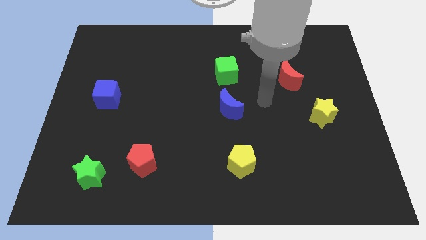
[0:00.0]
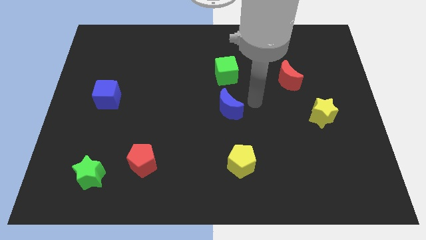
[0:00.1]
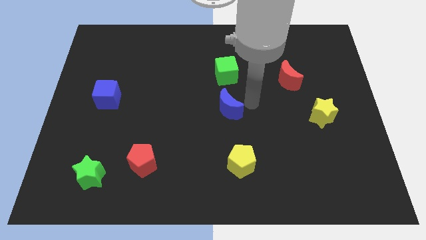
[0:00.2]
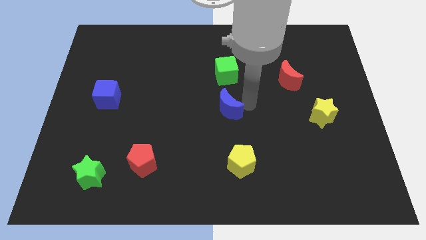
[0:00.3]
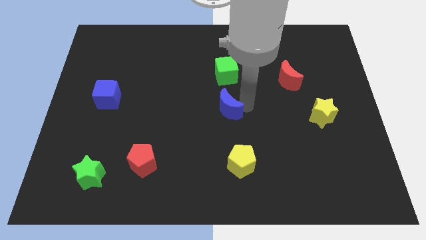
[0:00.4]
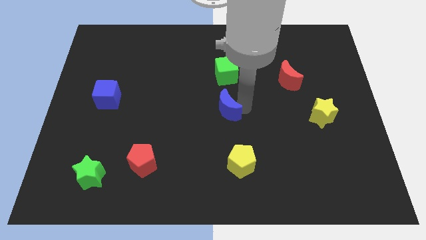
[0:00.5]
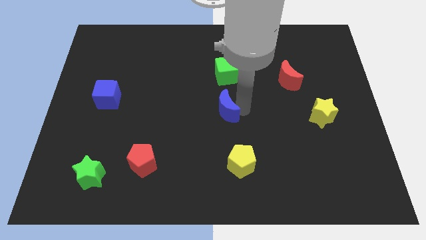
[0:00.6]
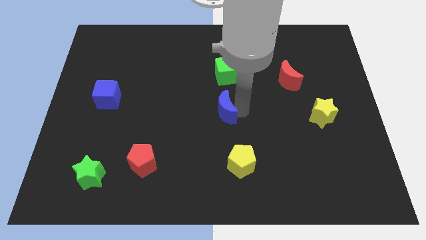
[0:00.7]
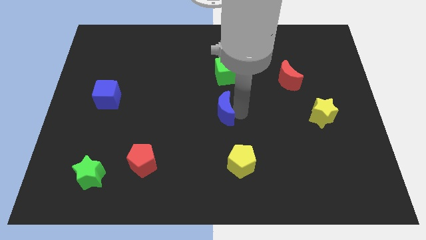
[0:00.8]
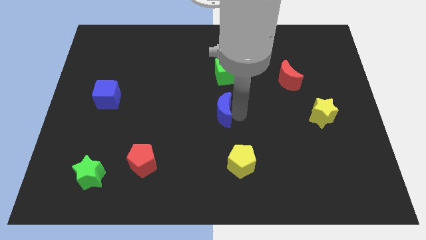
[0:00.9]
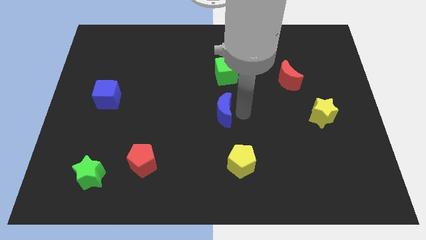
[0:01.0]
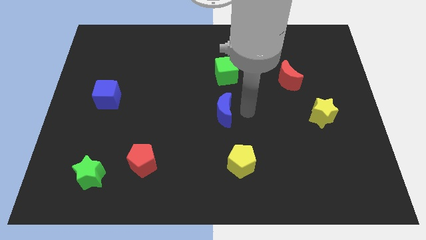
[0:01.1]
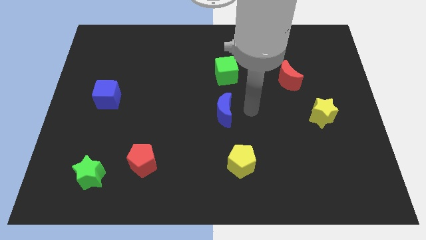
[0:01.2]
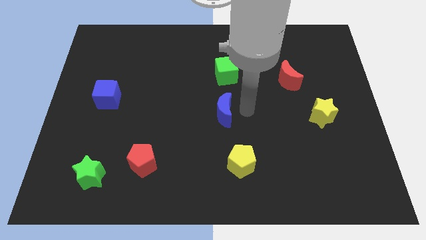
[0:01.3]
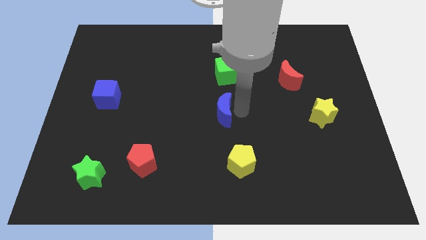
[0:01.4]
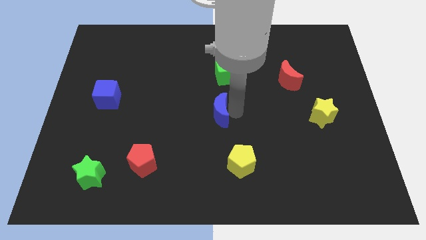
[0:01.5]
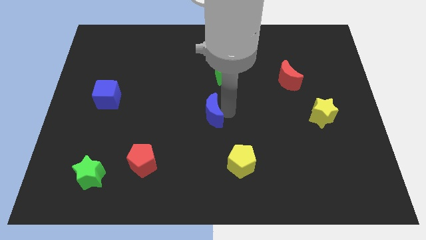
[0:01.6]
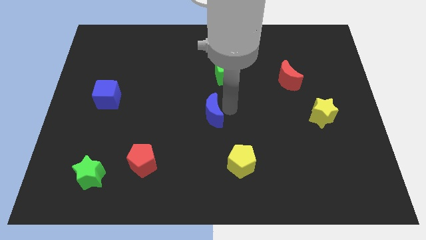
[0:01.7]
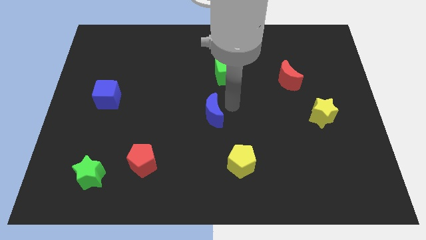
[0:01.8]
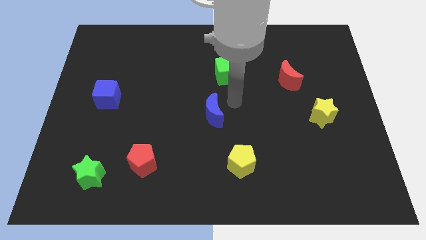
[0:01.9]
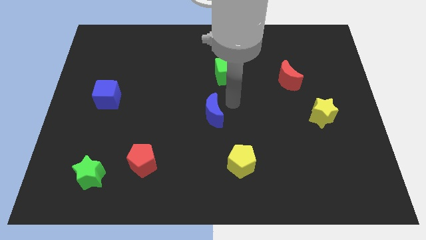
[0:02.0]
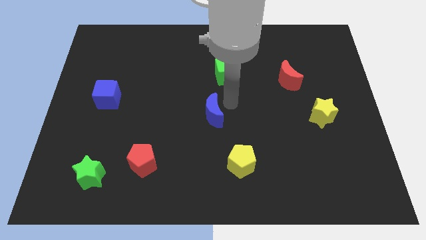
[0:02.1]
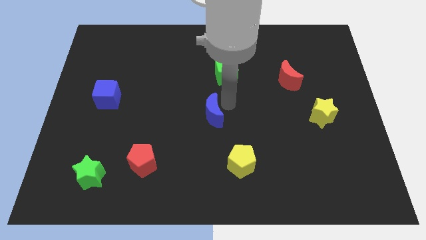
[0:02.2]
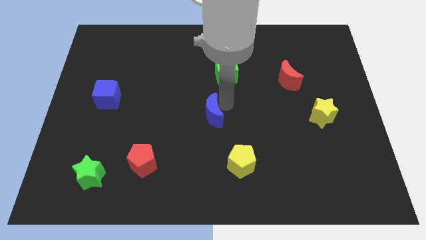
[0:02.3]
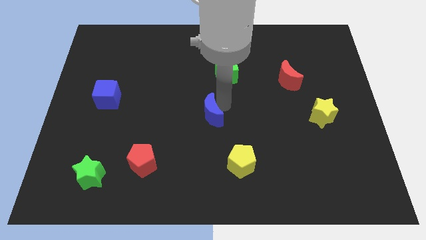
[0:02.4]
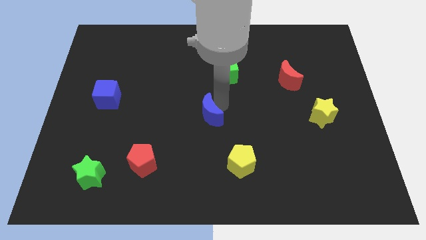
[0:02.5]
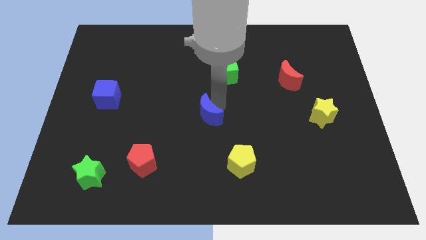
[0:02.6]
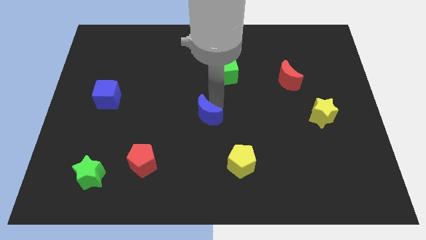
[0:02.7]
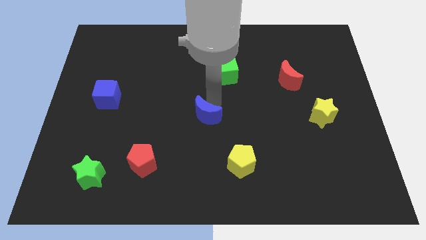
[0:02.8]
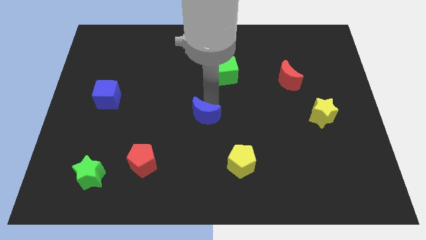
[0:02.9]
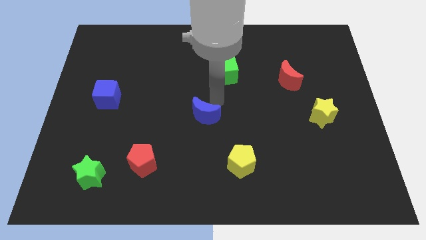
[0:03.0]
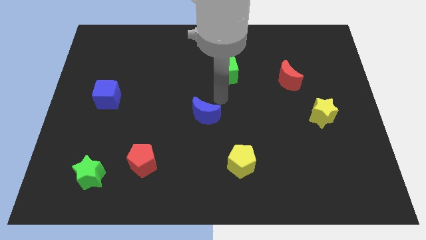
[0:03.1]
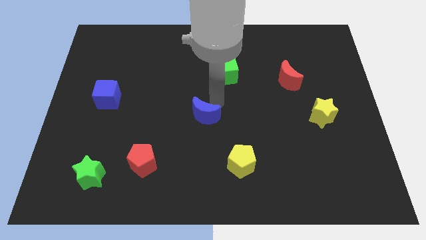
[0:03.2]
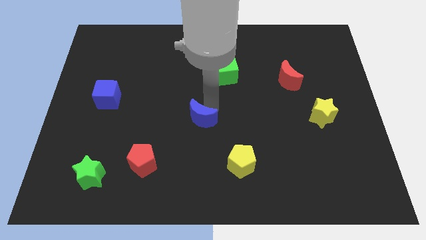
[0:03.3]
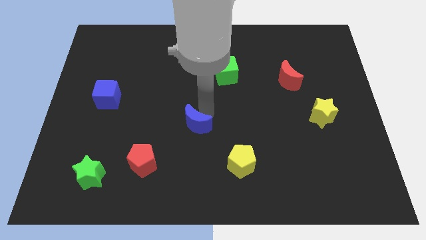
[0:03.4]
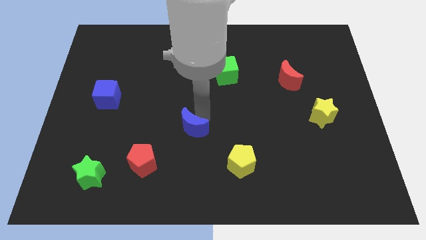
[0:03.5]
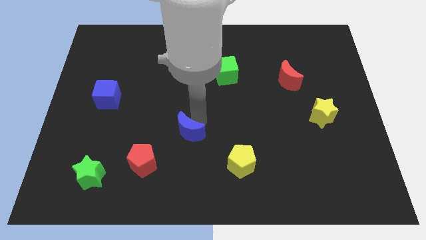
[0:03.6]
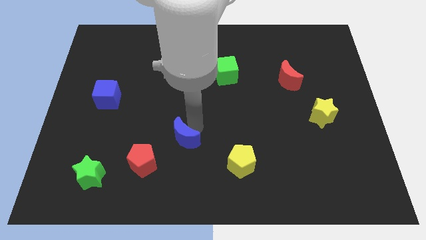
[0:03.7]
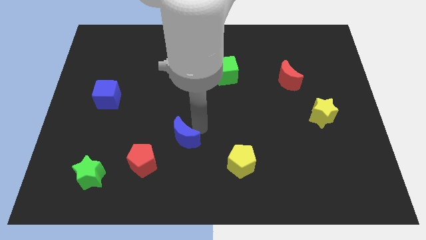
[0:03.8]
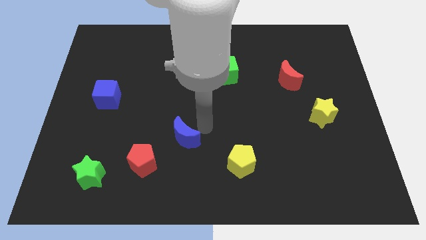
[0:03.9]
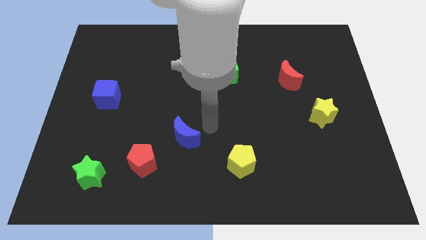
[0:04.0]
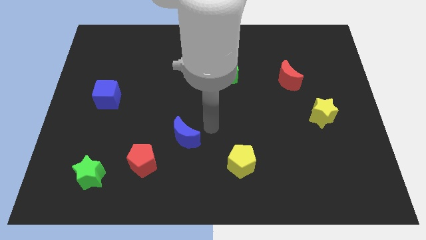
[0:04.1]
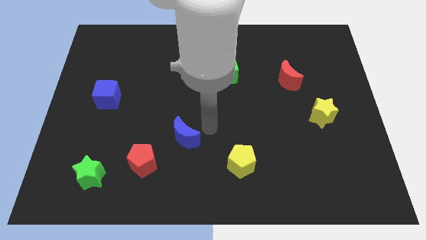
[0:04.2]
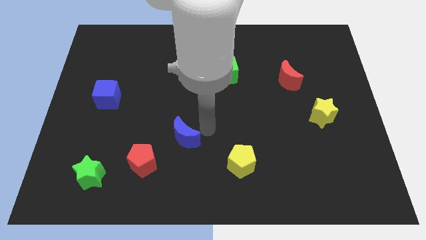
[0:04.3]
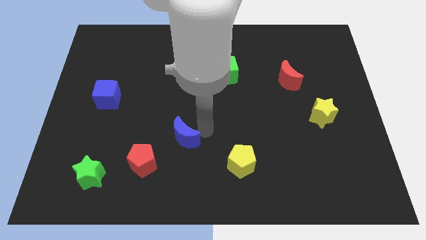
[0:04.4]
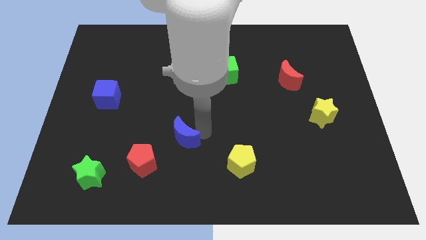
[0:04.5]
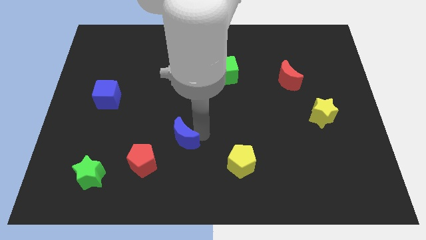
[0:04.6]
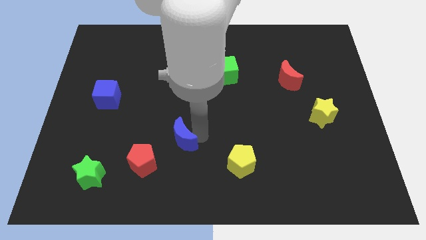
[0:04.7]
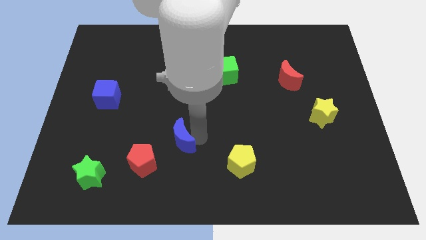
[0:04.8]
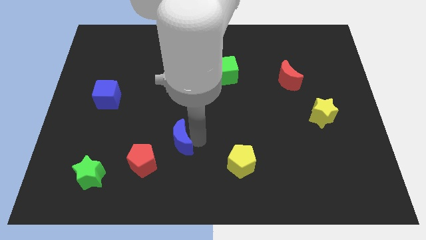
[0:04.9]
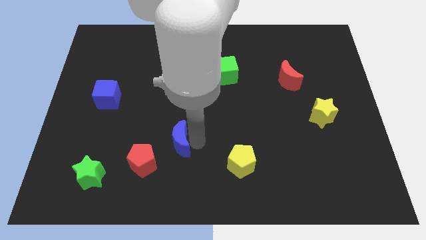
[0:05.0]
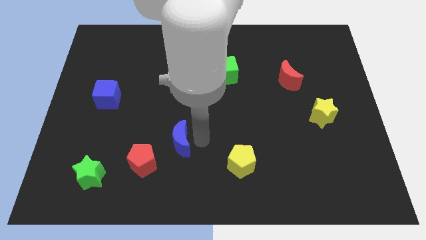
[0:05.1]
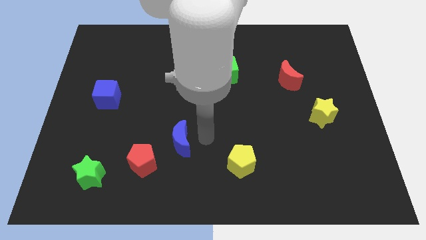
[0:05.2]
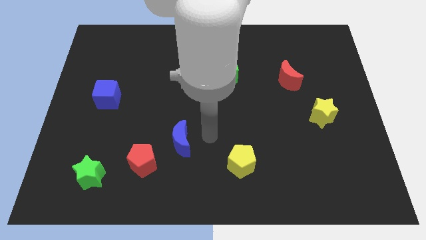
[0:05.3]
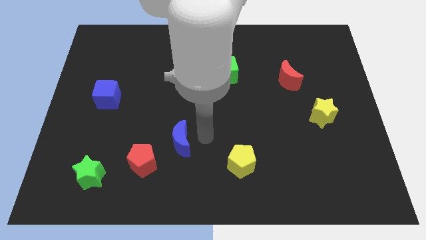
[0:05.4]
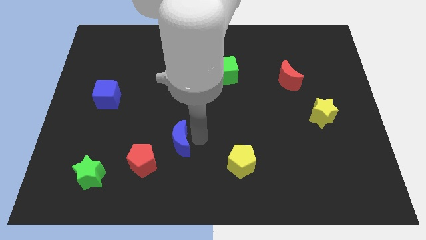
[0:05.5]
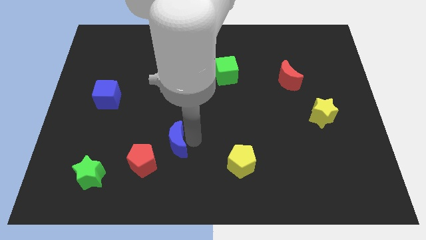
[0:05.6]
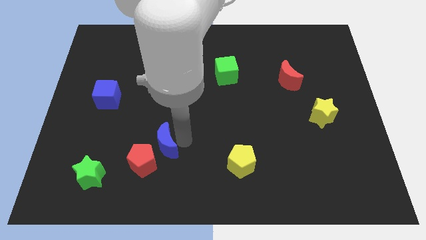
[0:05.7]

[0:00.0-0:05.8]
move the blue moon towards the red pentagon

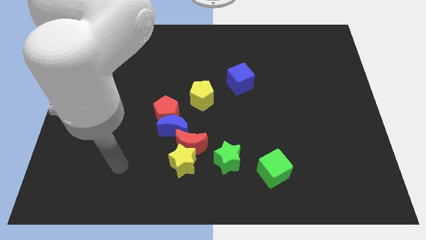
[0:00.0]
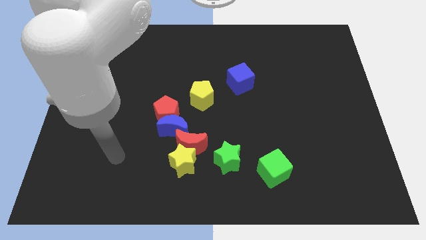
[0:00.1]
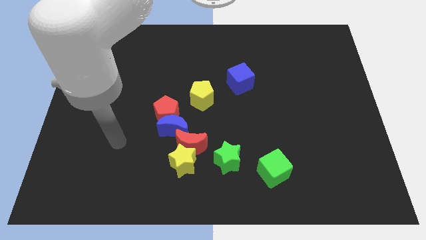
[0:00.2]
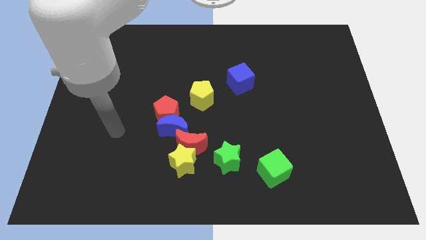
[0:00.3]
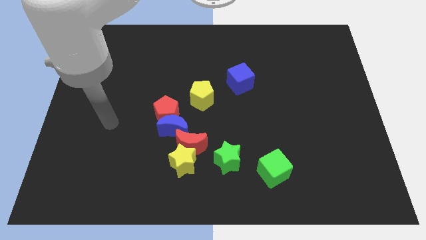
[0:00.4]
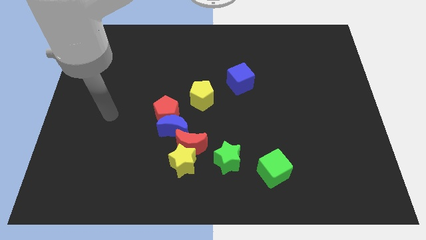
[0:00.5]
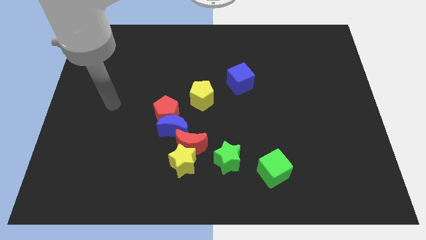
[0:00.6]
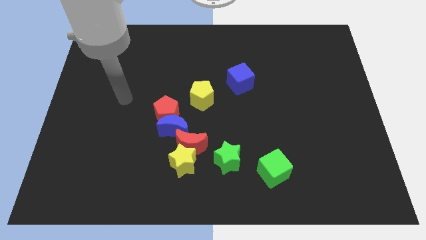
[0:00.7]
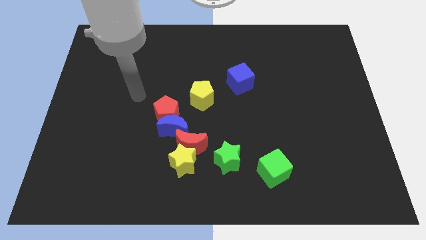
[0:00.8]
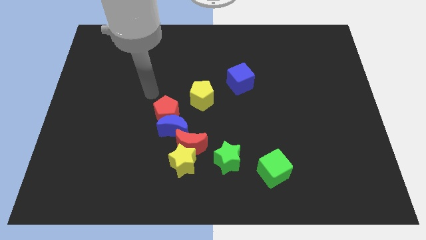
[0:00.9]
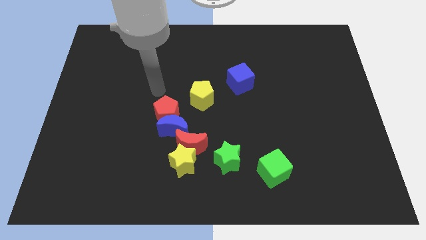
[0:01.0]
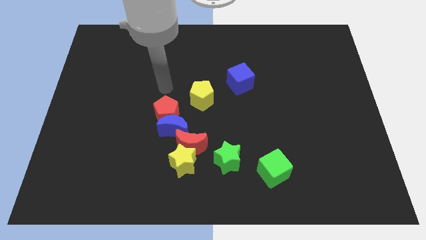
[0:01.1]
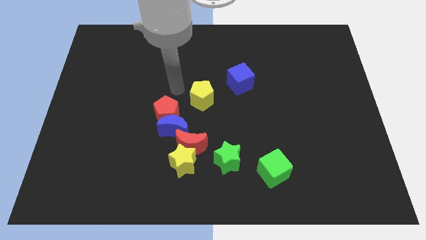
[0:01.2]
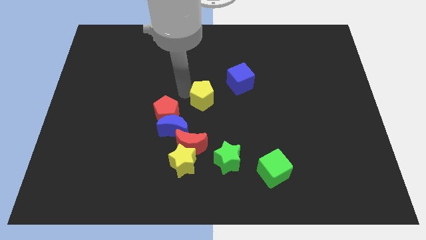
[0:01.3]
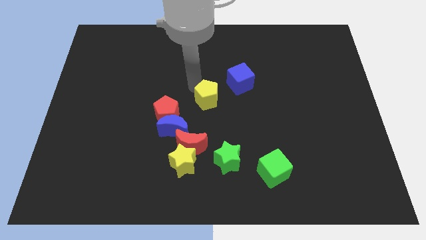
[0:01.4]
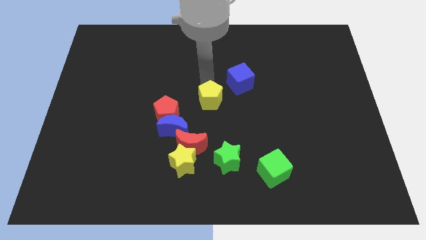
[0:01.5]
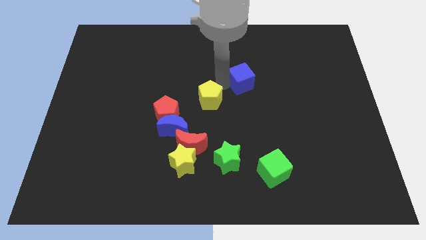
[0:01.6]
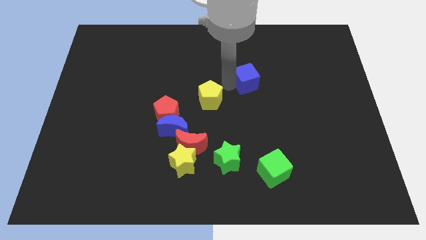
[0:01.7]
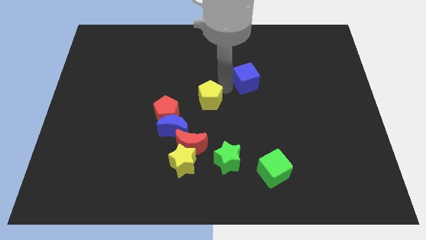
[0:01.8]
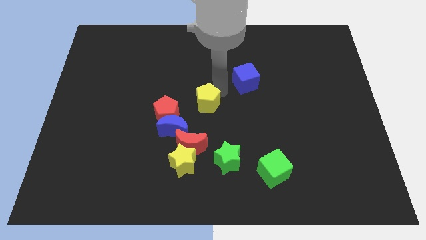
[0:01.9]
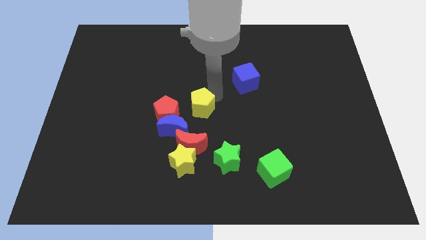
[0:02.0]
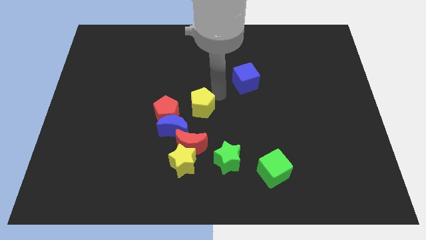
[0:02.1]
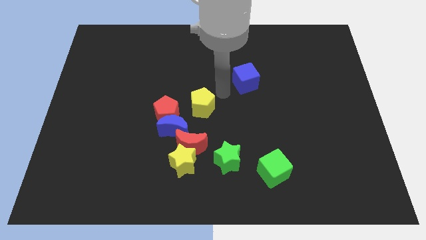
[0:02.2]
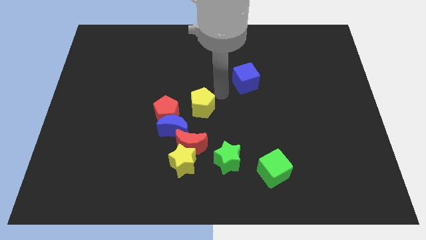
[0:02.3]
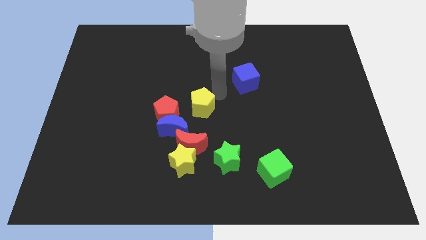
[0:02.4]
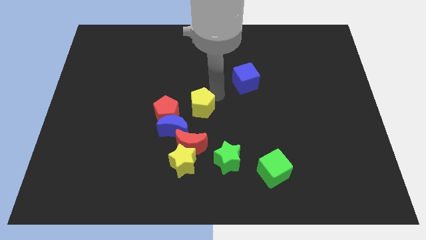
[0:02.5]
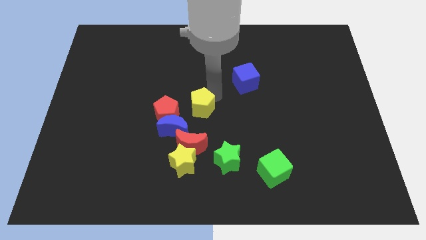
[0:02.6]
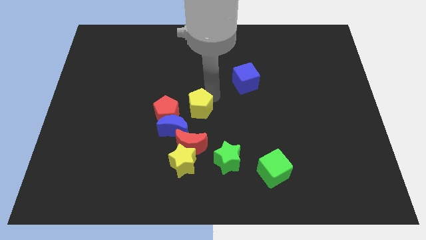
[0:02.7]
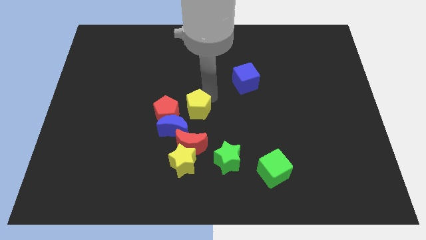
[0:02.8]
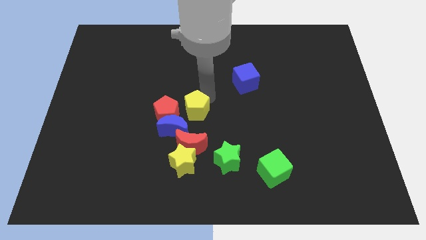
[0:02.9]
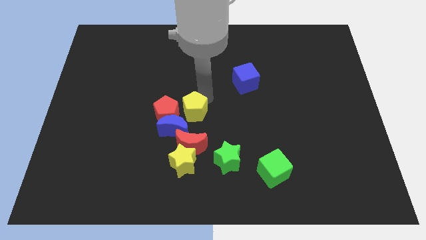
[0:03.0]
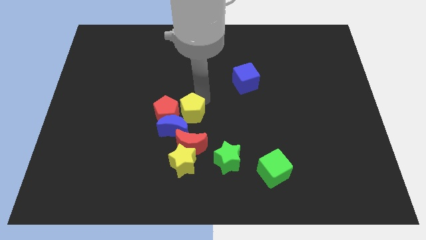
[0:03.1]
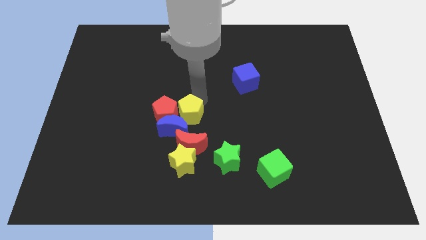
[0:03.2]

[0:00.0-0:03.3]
move the yellow pentagon towards the blue moon
